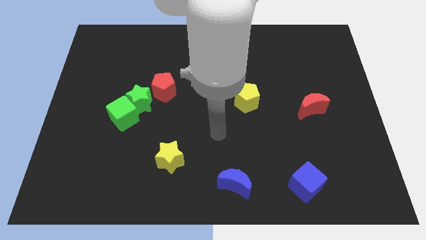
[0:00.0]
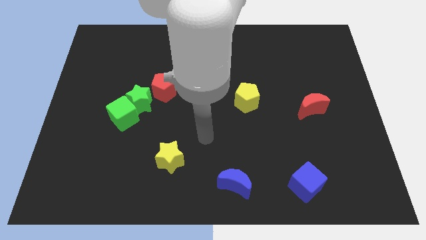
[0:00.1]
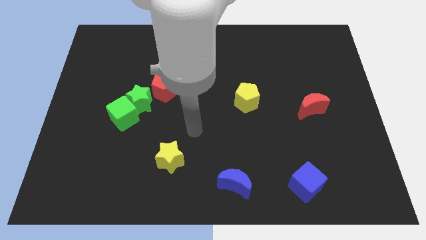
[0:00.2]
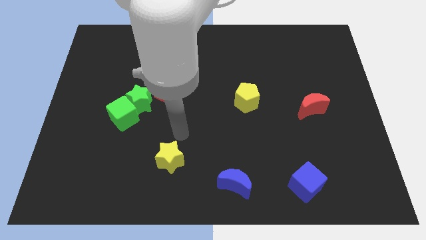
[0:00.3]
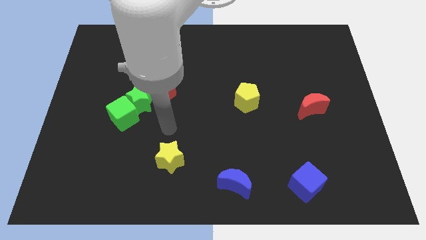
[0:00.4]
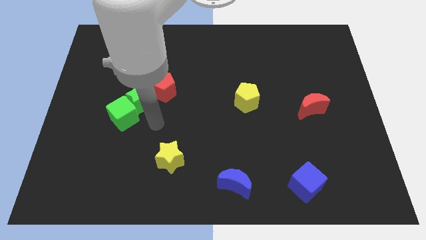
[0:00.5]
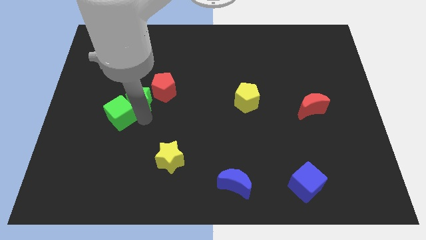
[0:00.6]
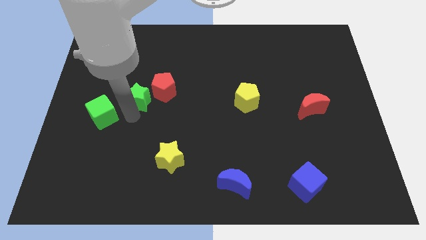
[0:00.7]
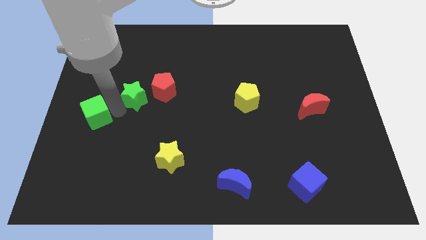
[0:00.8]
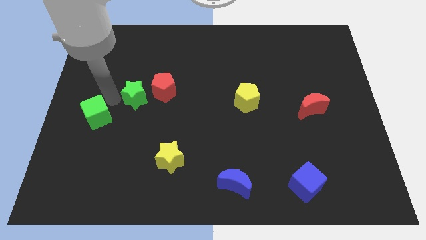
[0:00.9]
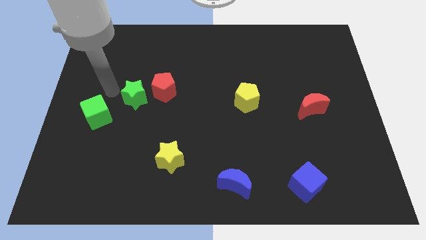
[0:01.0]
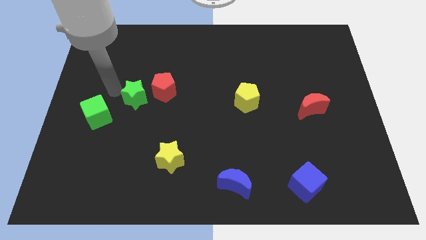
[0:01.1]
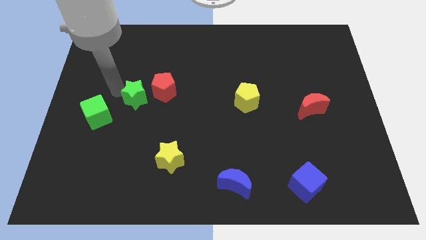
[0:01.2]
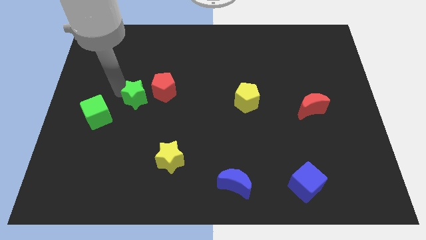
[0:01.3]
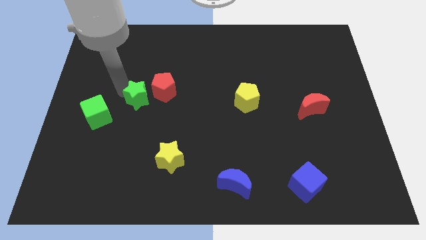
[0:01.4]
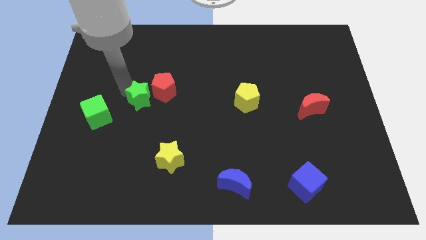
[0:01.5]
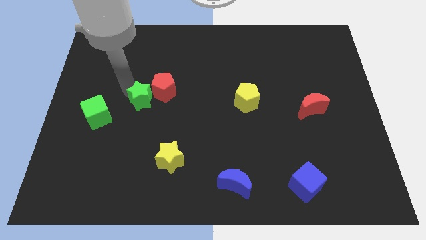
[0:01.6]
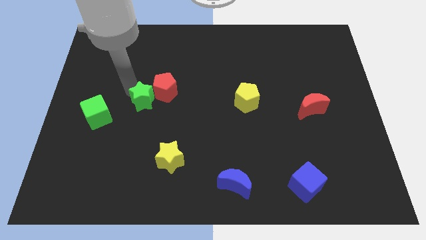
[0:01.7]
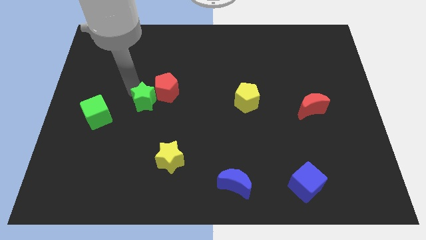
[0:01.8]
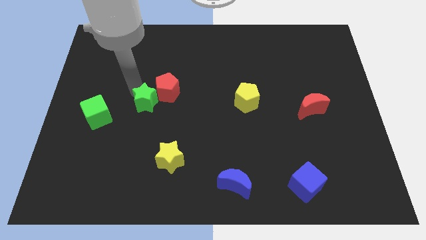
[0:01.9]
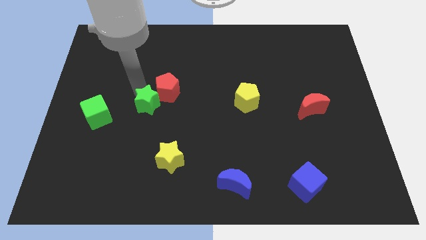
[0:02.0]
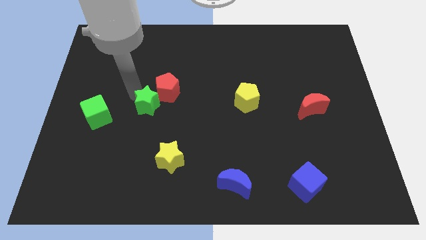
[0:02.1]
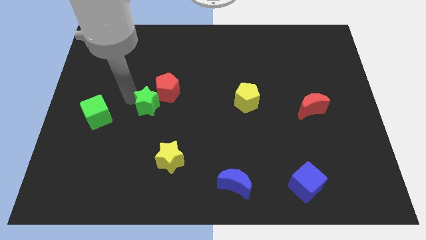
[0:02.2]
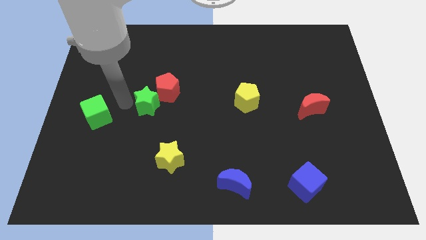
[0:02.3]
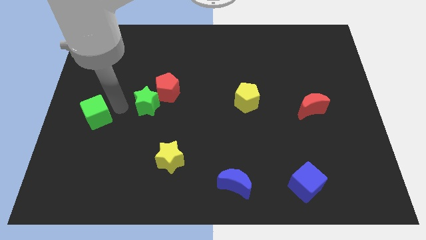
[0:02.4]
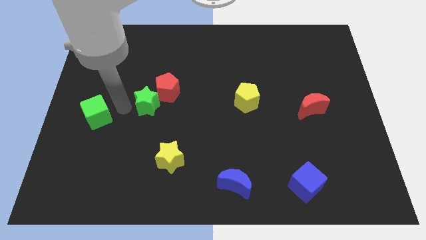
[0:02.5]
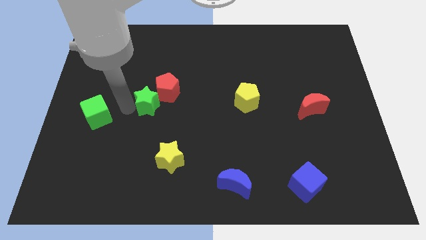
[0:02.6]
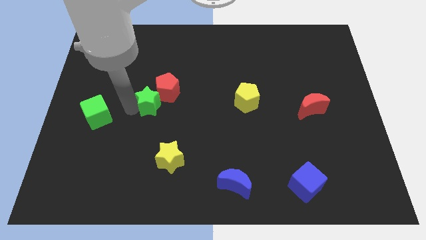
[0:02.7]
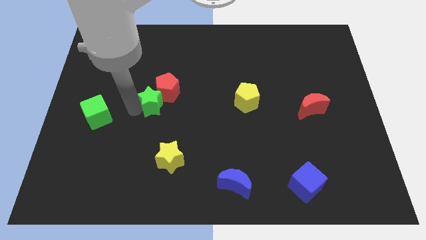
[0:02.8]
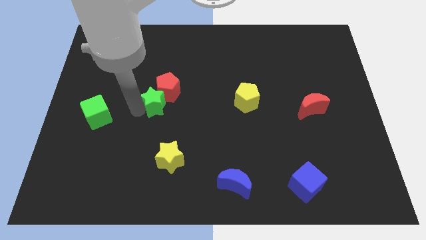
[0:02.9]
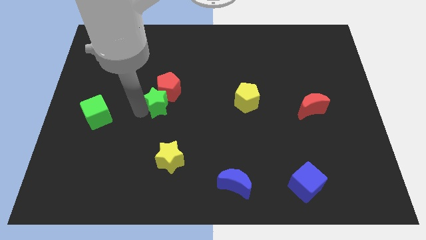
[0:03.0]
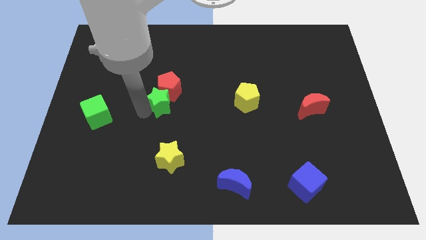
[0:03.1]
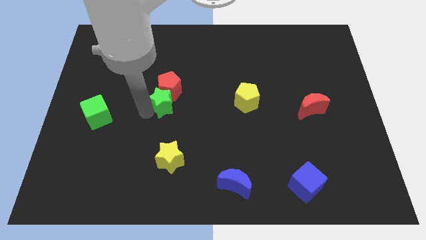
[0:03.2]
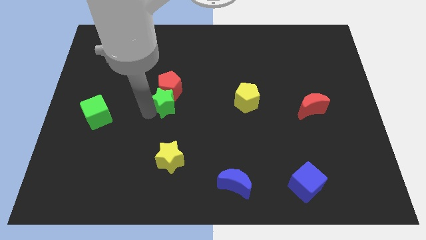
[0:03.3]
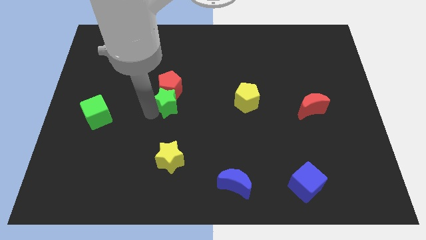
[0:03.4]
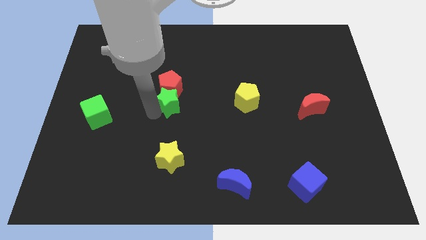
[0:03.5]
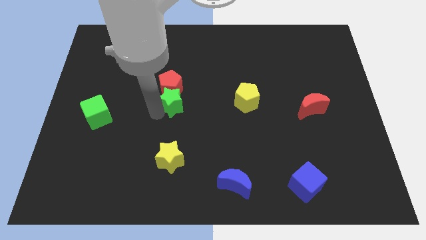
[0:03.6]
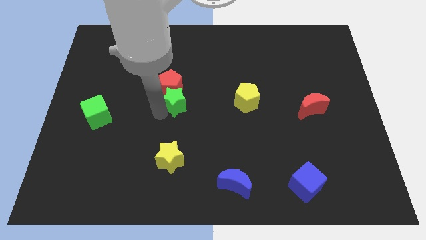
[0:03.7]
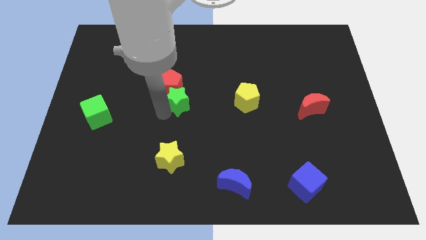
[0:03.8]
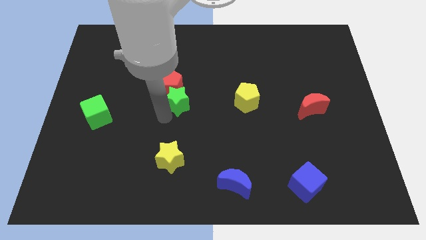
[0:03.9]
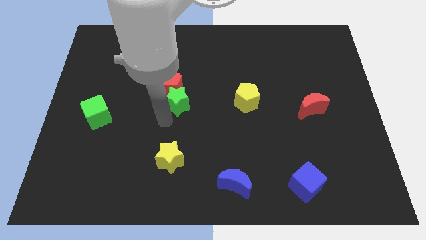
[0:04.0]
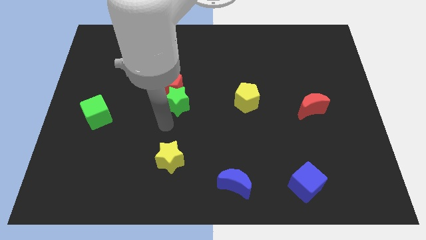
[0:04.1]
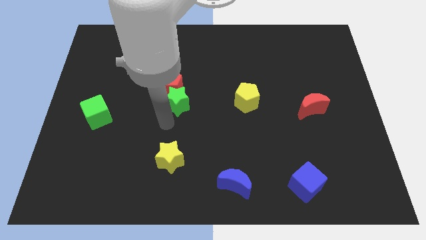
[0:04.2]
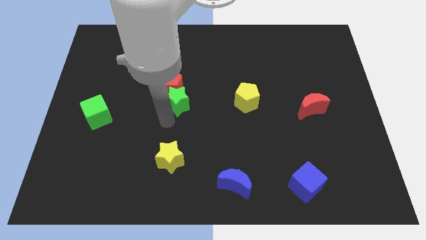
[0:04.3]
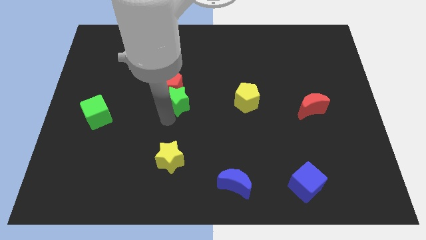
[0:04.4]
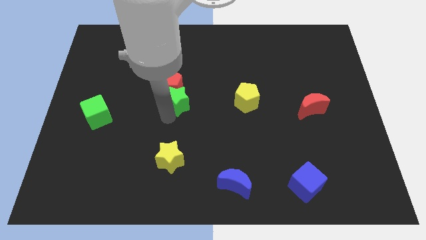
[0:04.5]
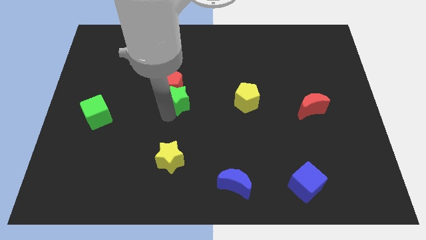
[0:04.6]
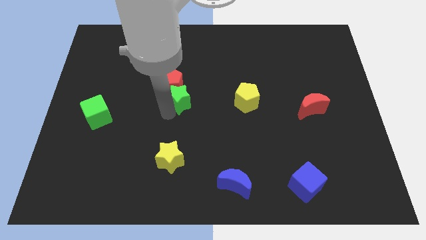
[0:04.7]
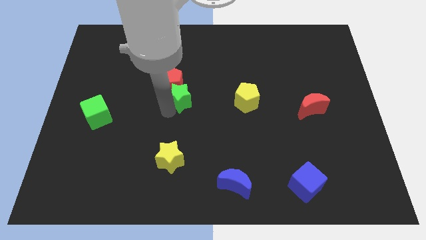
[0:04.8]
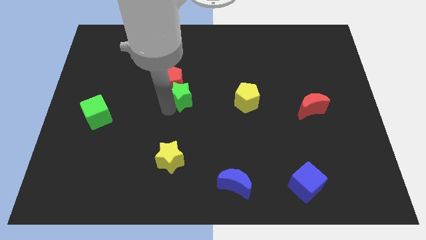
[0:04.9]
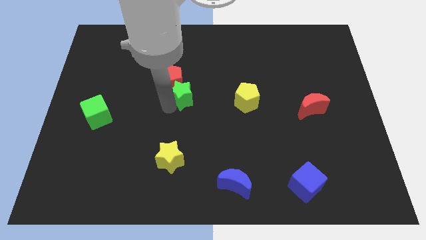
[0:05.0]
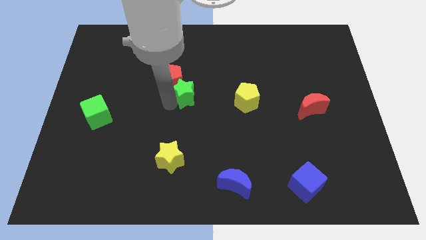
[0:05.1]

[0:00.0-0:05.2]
slide the green star up and right diagonally a bit

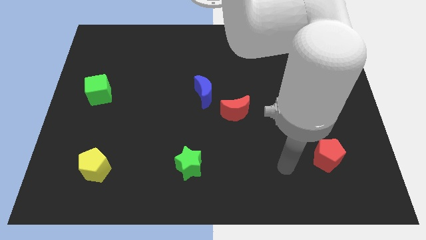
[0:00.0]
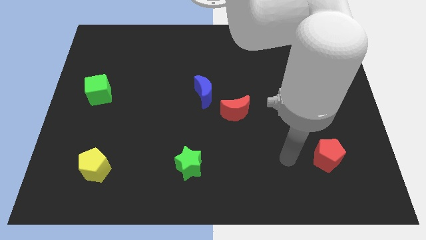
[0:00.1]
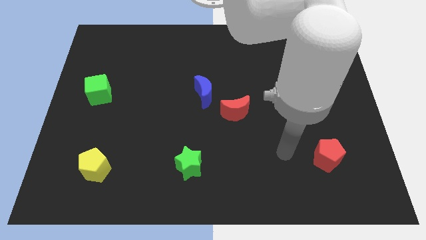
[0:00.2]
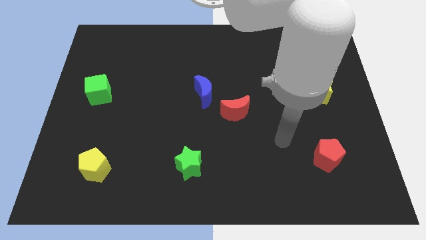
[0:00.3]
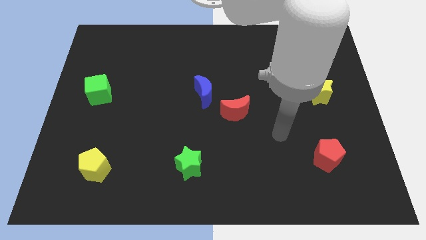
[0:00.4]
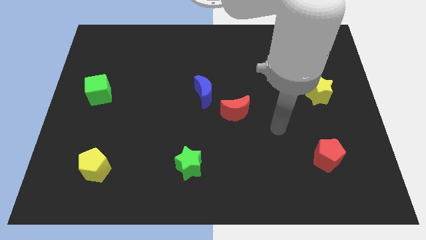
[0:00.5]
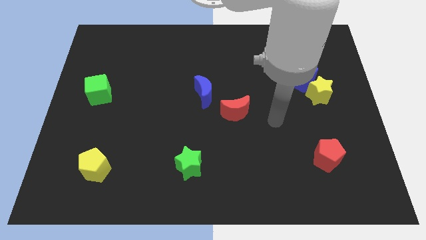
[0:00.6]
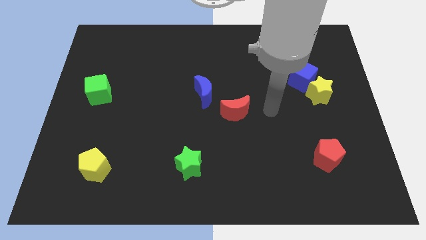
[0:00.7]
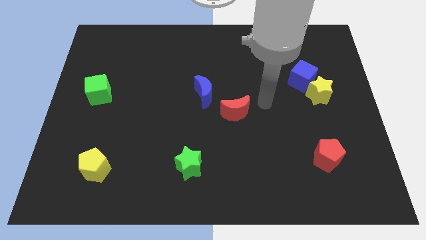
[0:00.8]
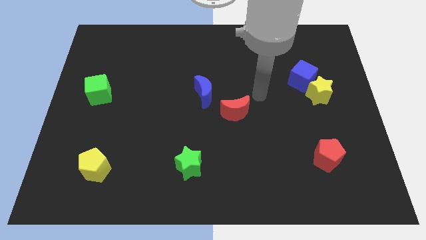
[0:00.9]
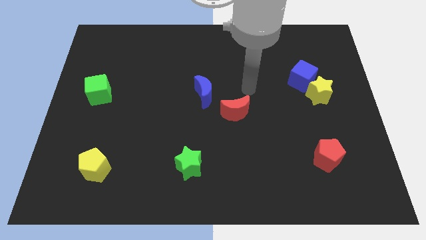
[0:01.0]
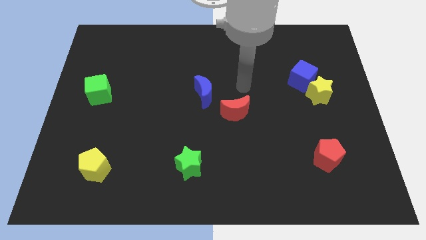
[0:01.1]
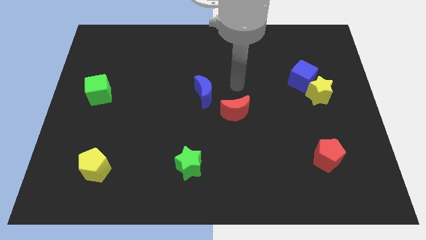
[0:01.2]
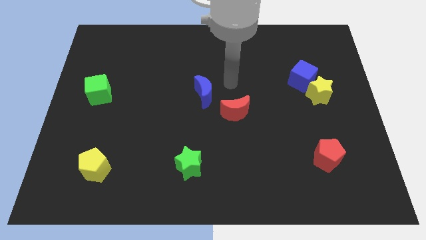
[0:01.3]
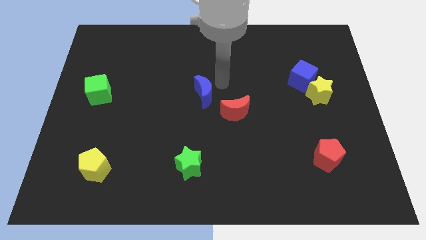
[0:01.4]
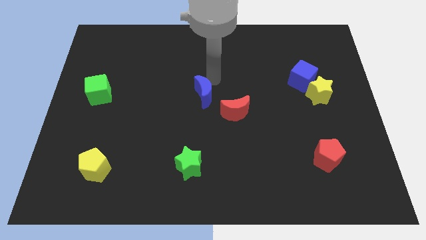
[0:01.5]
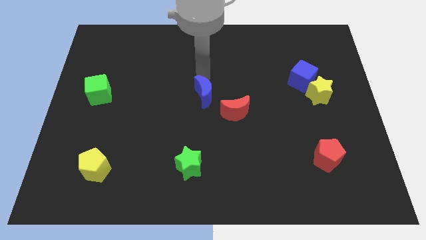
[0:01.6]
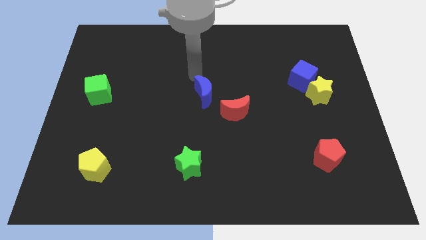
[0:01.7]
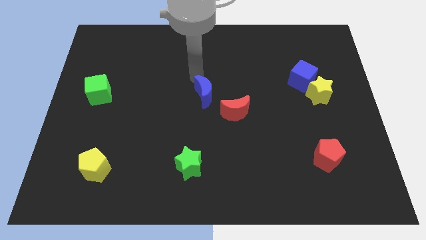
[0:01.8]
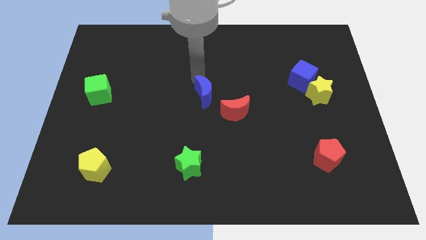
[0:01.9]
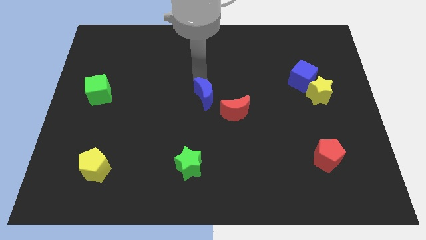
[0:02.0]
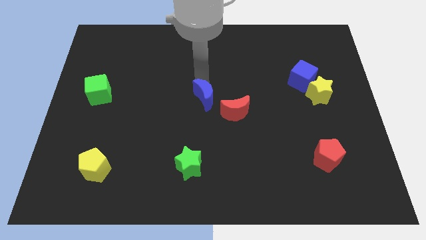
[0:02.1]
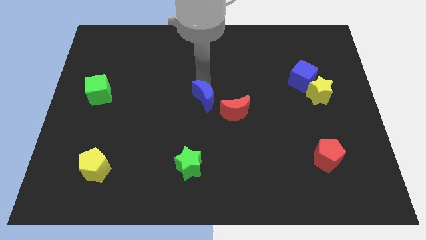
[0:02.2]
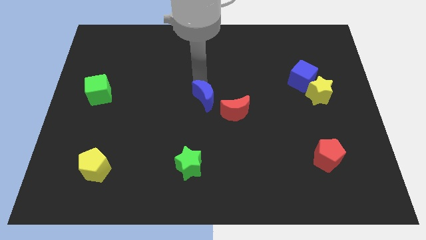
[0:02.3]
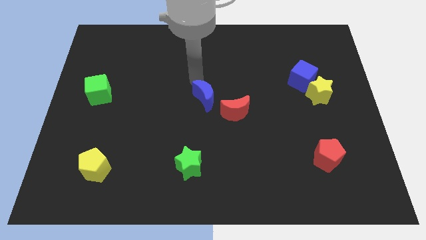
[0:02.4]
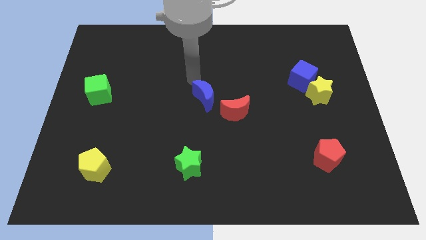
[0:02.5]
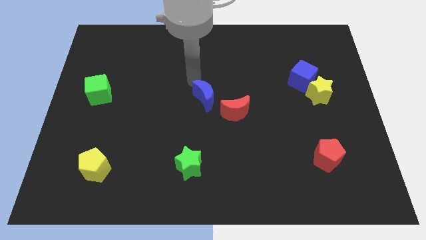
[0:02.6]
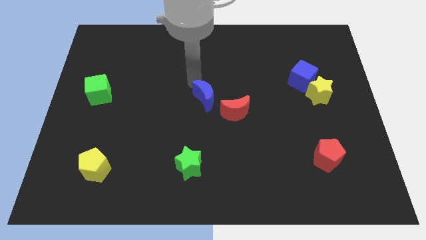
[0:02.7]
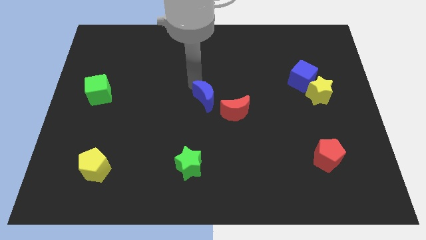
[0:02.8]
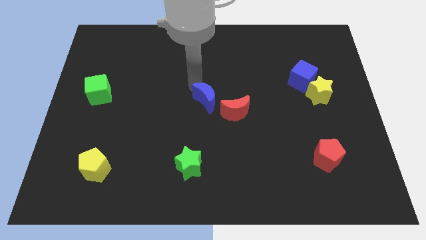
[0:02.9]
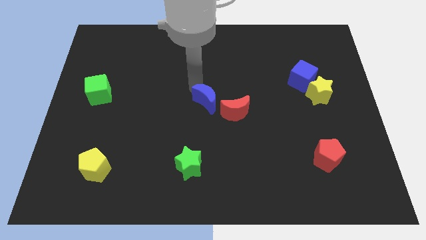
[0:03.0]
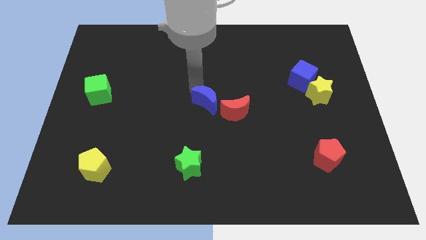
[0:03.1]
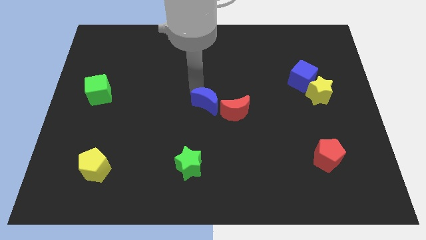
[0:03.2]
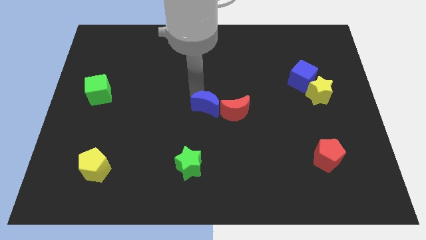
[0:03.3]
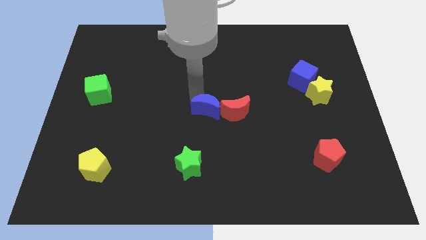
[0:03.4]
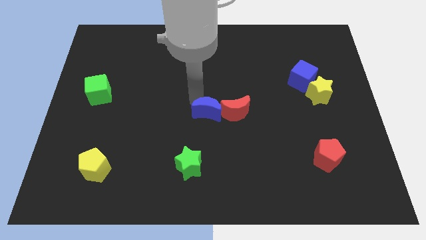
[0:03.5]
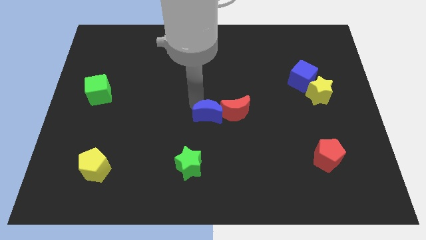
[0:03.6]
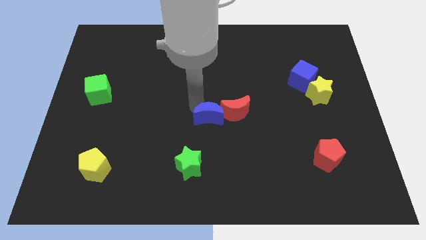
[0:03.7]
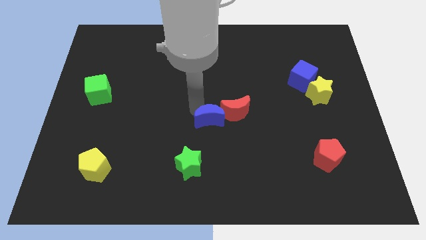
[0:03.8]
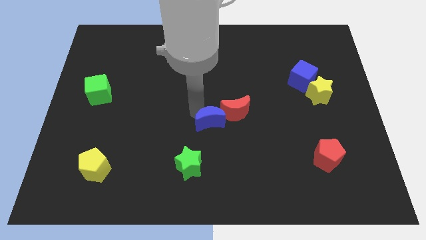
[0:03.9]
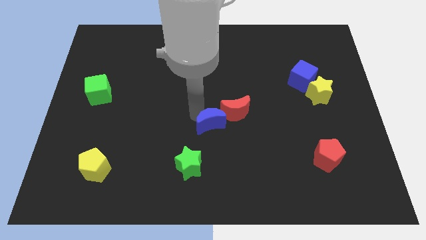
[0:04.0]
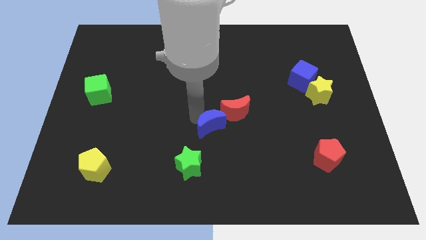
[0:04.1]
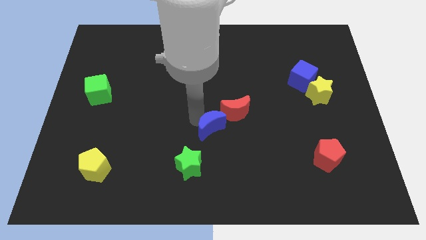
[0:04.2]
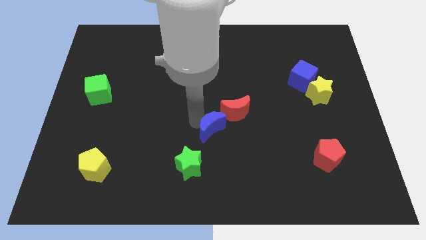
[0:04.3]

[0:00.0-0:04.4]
push the blue moon downwards and then right a bit
